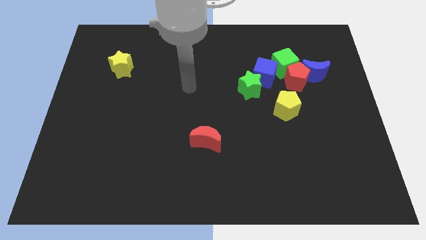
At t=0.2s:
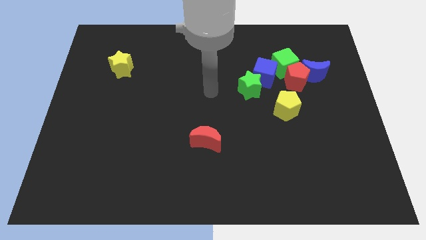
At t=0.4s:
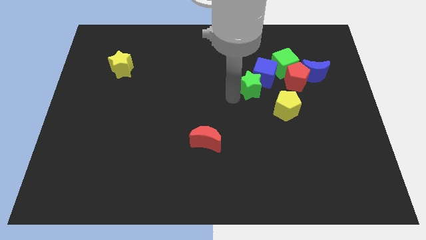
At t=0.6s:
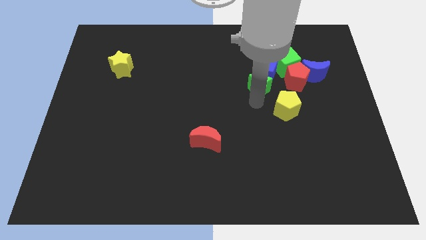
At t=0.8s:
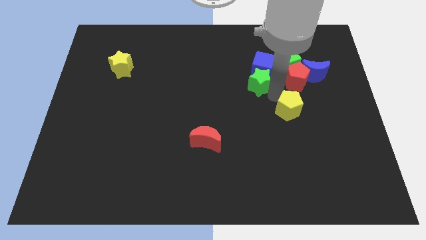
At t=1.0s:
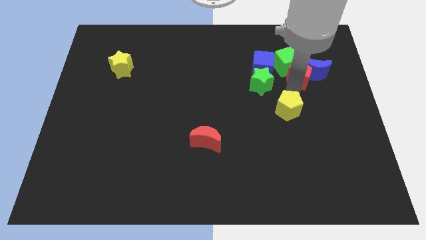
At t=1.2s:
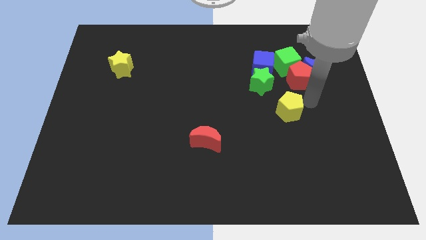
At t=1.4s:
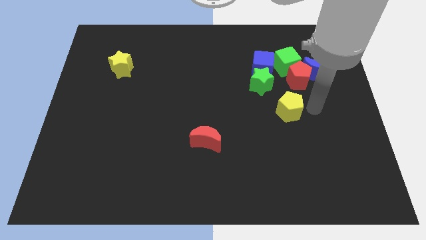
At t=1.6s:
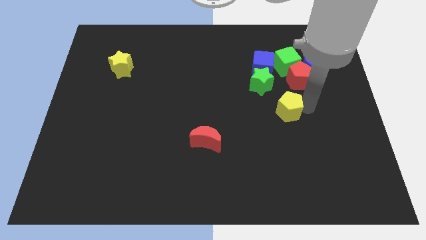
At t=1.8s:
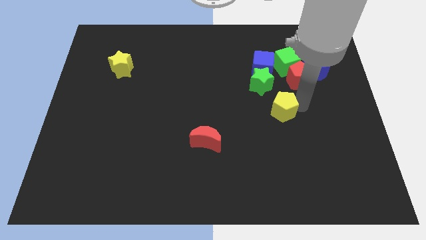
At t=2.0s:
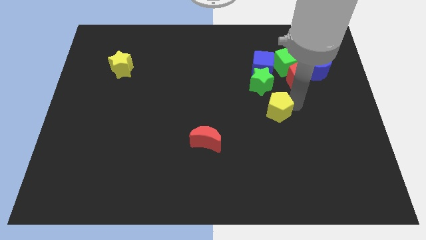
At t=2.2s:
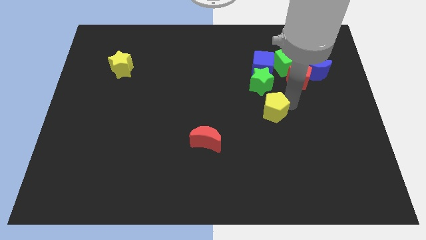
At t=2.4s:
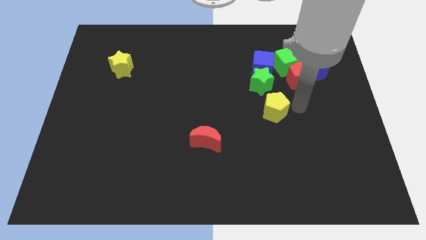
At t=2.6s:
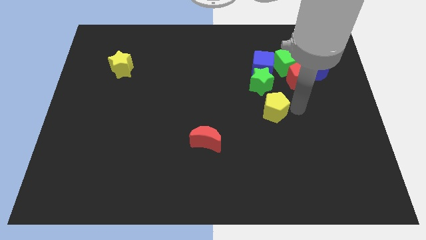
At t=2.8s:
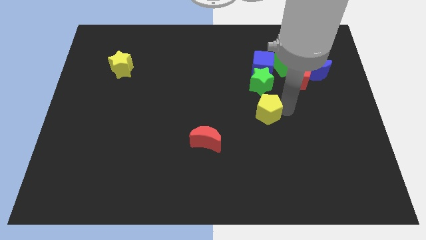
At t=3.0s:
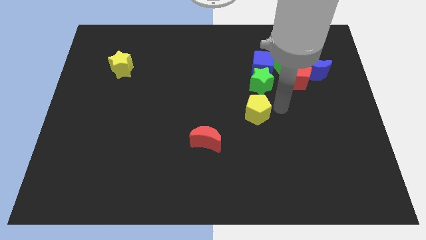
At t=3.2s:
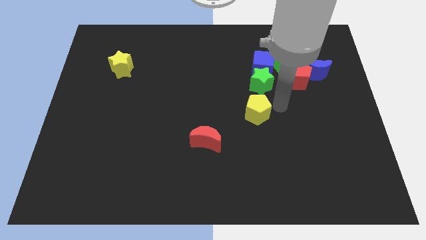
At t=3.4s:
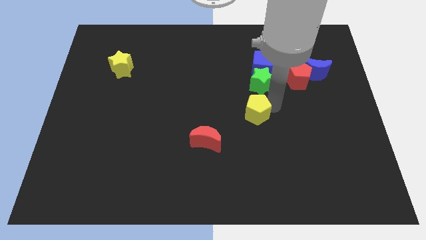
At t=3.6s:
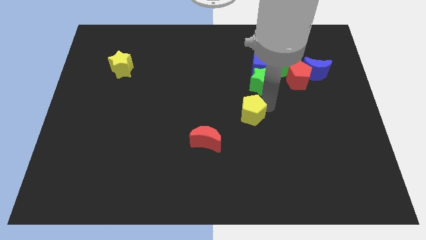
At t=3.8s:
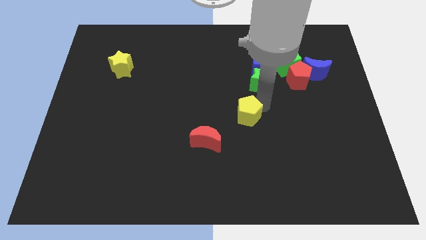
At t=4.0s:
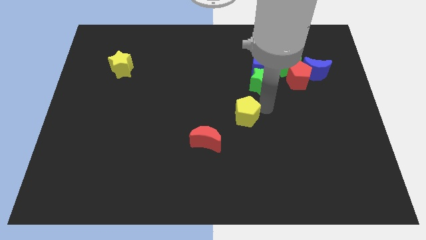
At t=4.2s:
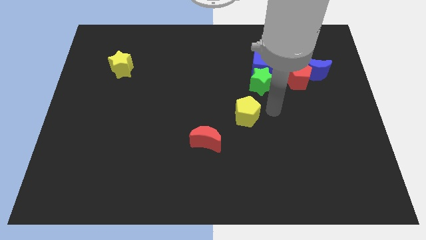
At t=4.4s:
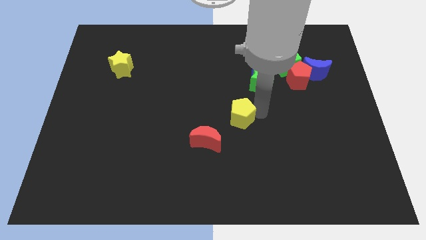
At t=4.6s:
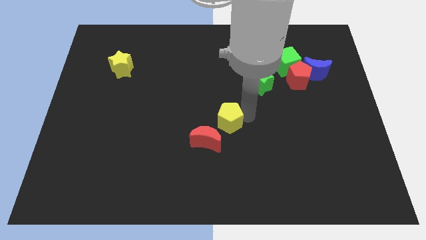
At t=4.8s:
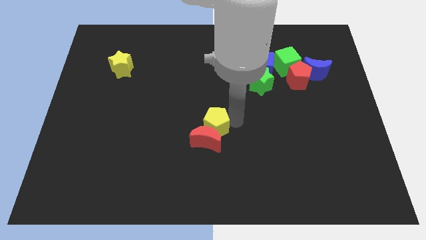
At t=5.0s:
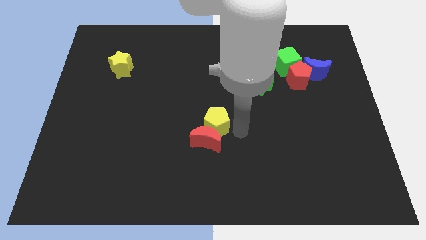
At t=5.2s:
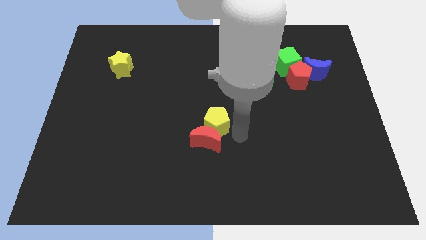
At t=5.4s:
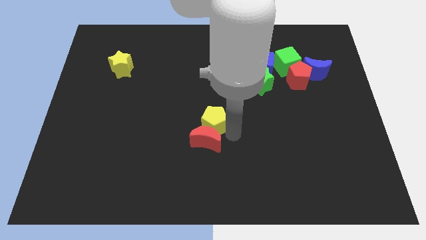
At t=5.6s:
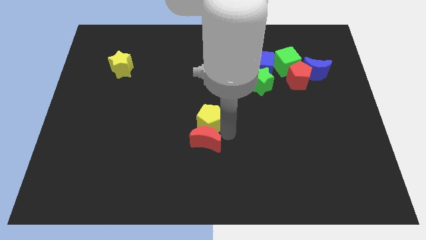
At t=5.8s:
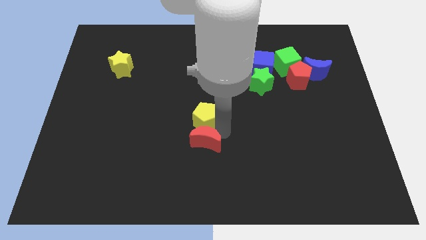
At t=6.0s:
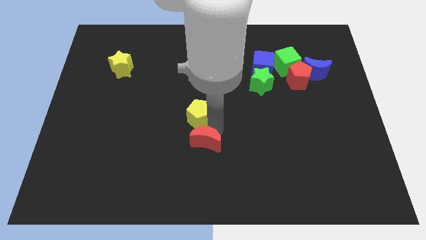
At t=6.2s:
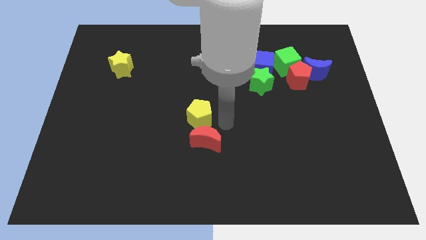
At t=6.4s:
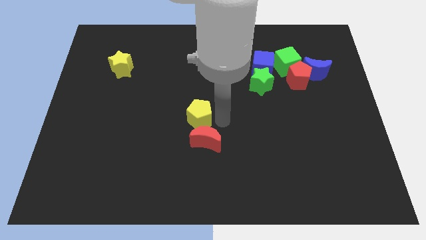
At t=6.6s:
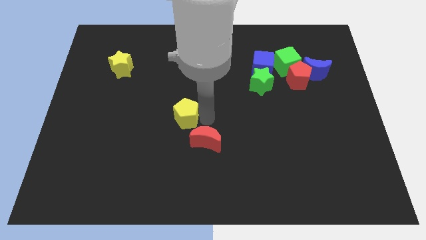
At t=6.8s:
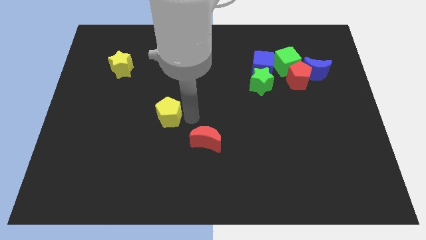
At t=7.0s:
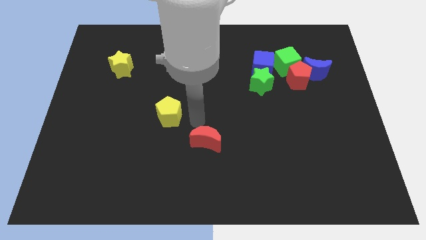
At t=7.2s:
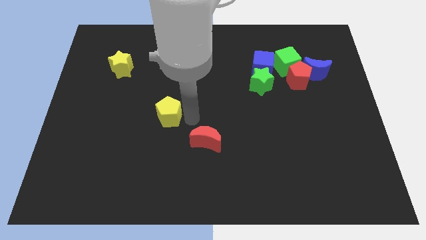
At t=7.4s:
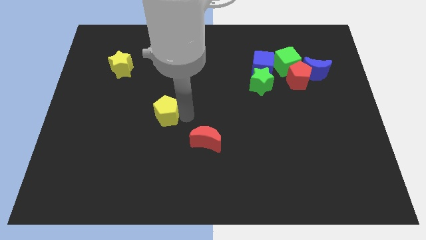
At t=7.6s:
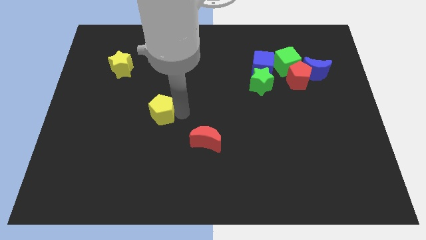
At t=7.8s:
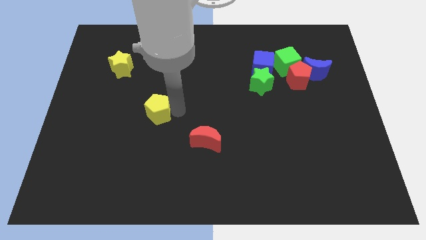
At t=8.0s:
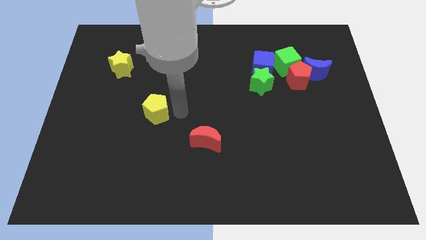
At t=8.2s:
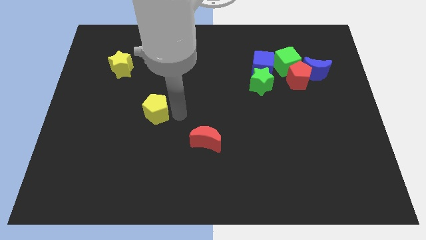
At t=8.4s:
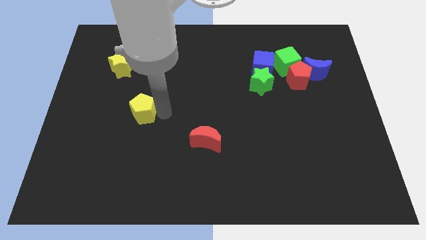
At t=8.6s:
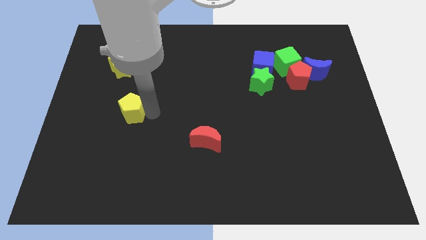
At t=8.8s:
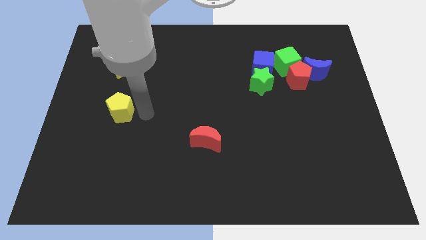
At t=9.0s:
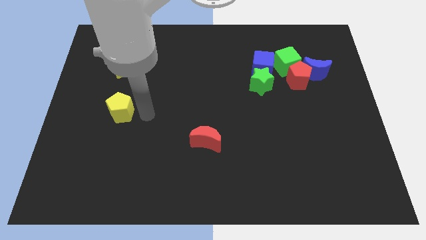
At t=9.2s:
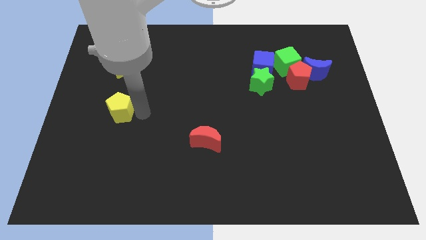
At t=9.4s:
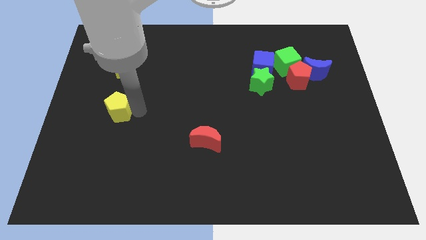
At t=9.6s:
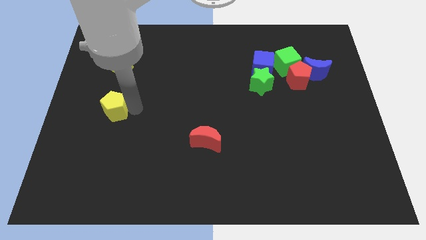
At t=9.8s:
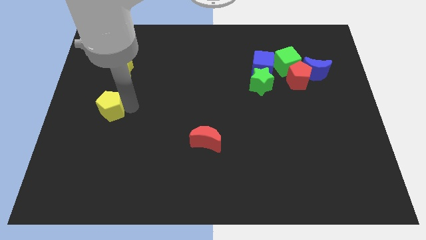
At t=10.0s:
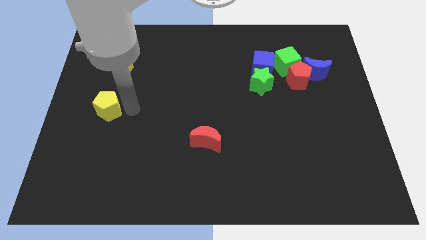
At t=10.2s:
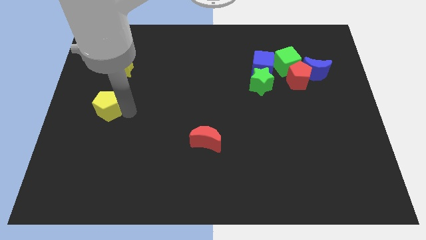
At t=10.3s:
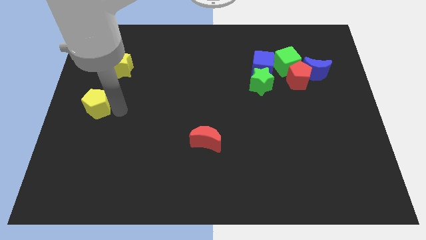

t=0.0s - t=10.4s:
move the yellow pentagon to the center left
